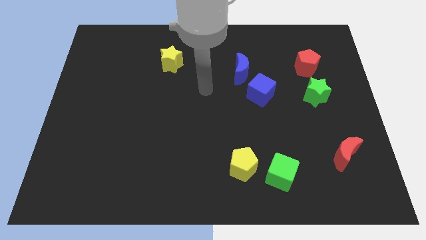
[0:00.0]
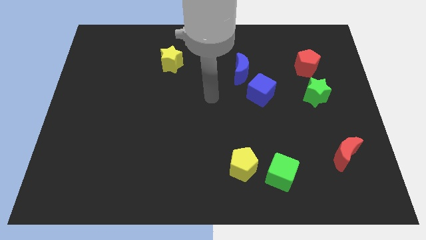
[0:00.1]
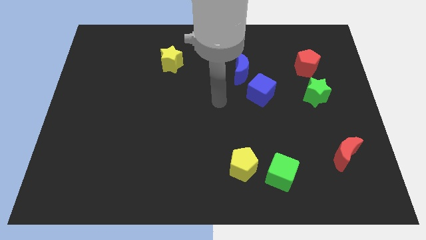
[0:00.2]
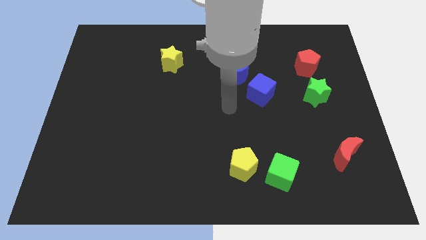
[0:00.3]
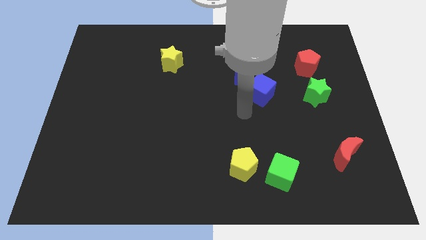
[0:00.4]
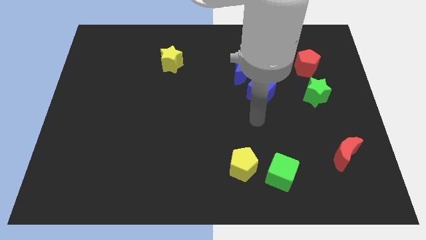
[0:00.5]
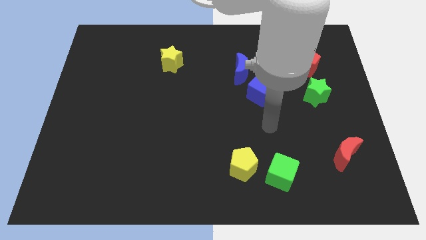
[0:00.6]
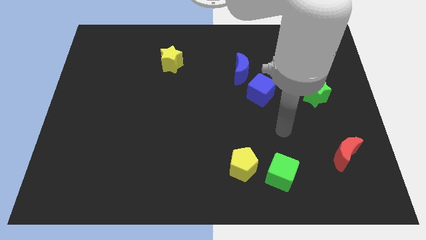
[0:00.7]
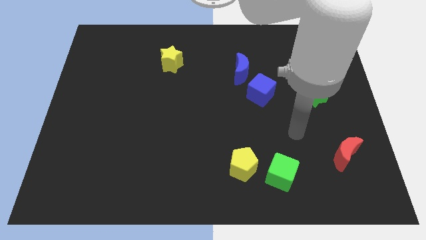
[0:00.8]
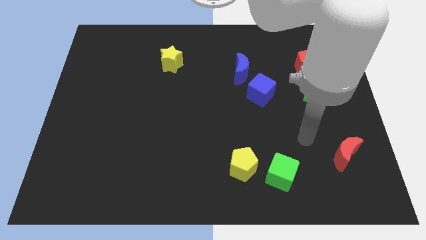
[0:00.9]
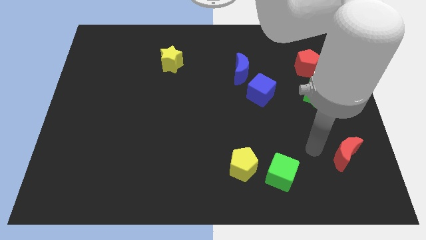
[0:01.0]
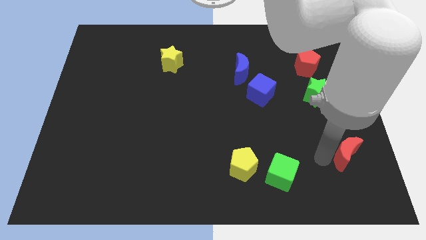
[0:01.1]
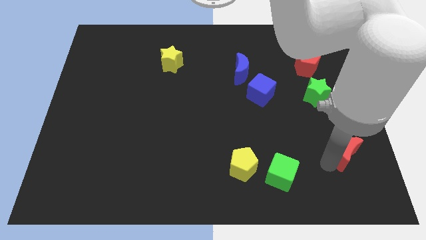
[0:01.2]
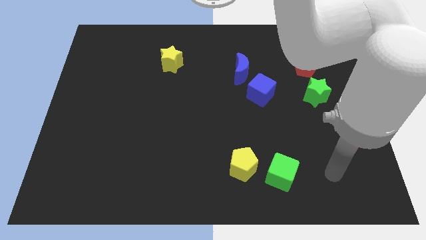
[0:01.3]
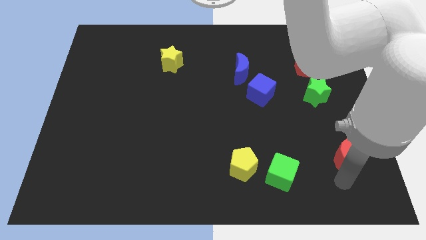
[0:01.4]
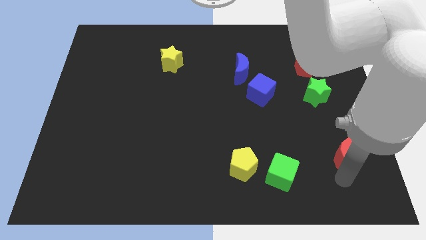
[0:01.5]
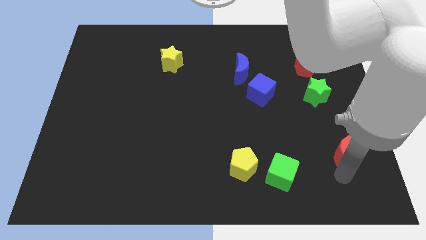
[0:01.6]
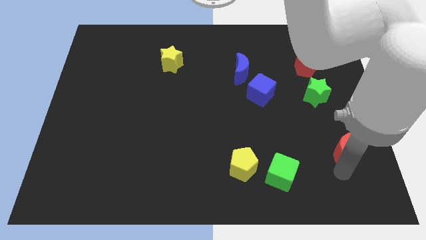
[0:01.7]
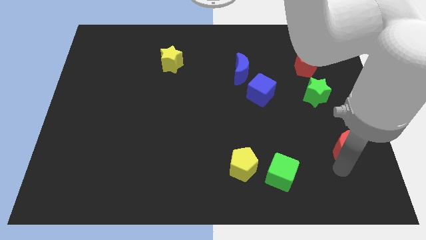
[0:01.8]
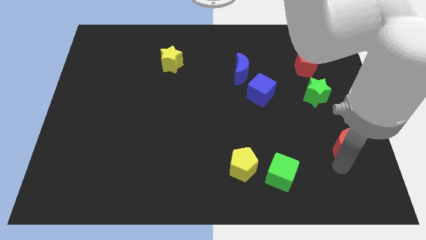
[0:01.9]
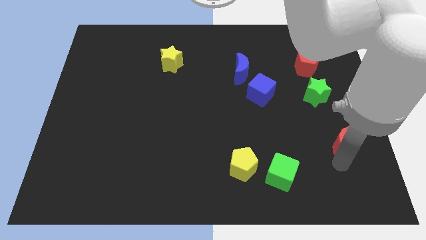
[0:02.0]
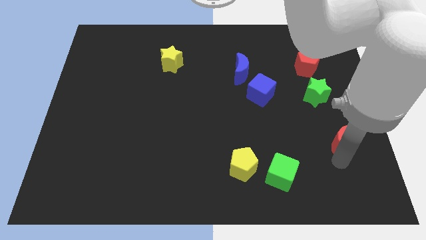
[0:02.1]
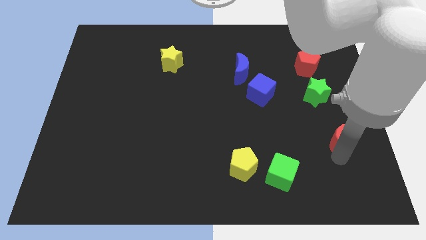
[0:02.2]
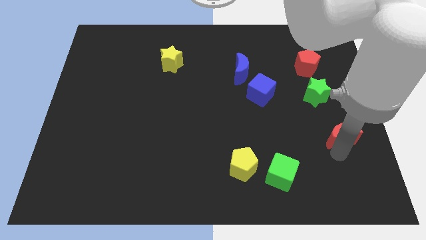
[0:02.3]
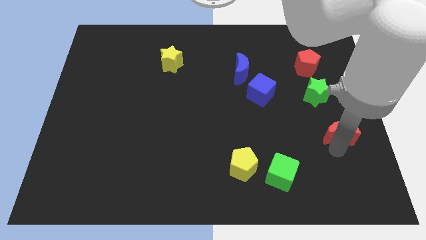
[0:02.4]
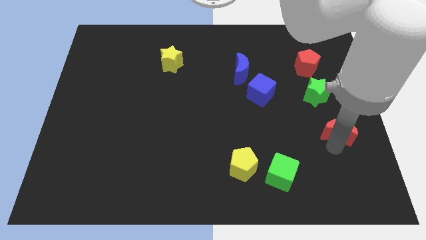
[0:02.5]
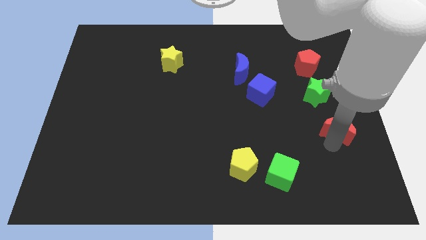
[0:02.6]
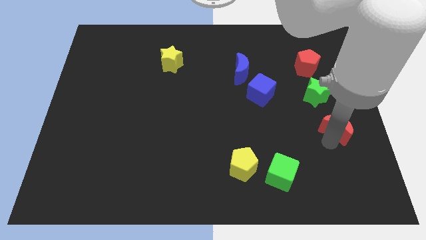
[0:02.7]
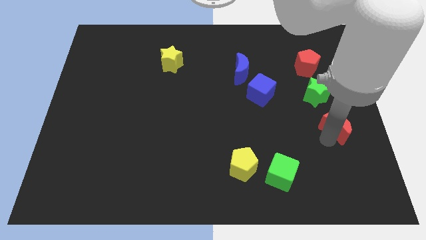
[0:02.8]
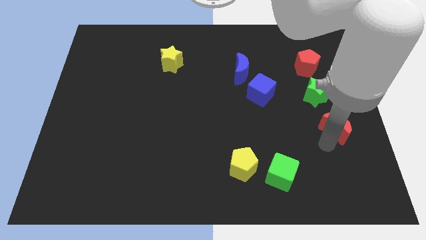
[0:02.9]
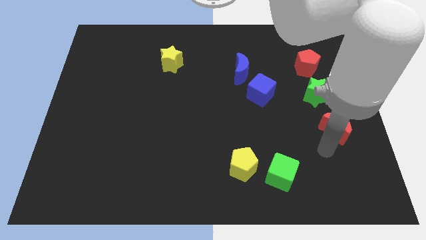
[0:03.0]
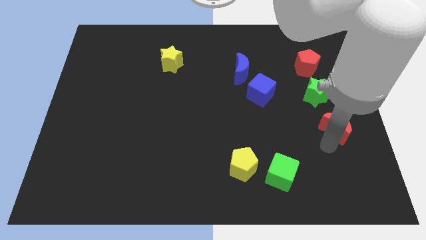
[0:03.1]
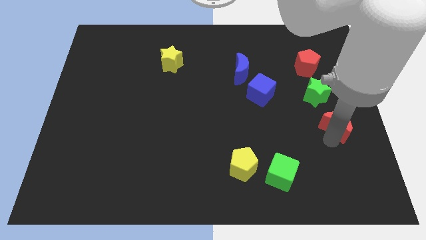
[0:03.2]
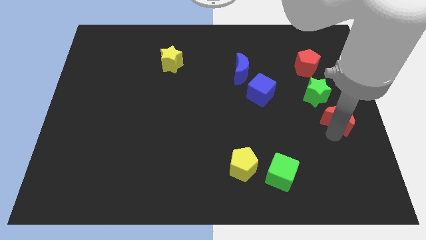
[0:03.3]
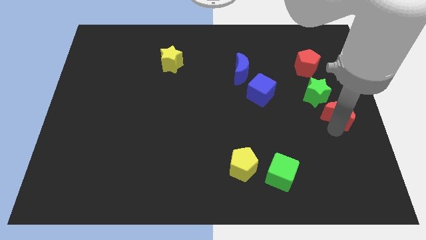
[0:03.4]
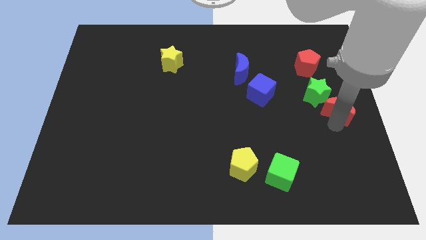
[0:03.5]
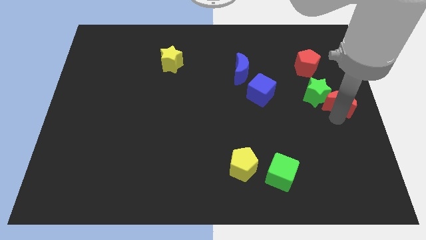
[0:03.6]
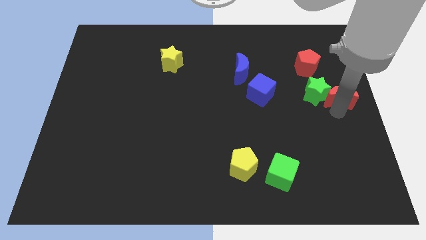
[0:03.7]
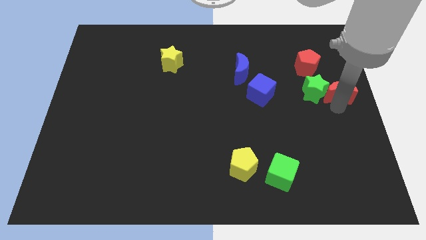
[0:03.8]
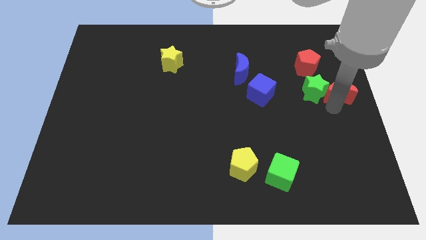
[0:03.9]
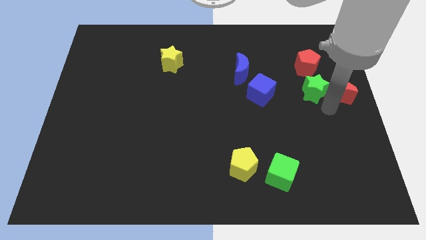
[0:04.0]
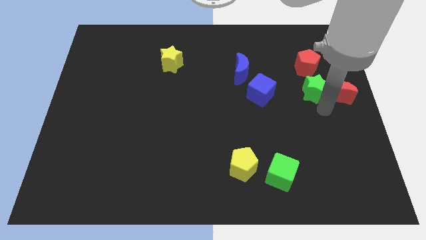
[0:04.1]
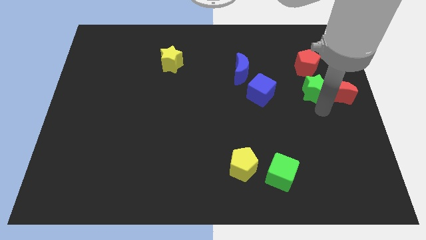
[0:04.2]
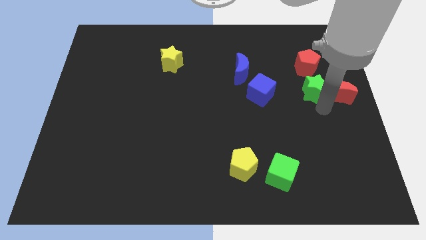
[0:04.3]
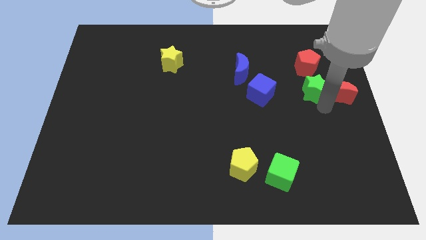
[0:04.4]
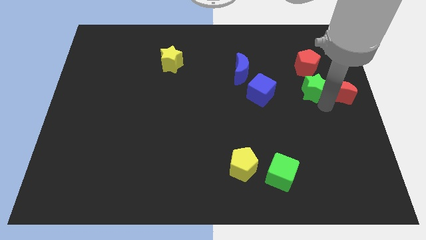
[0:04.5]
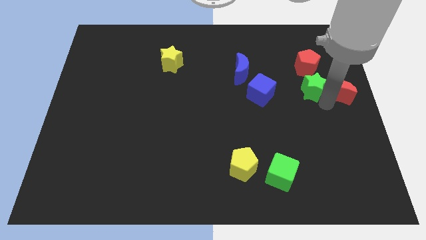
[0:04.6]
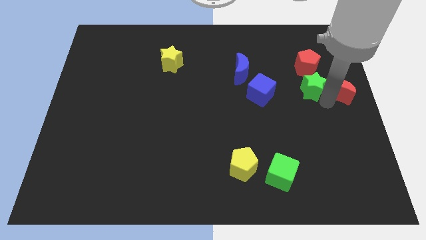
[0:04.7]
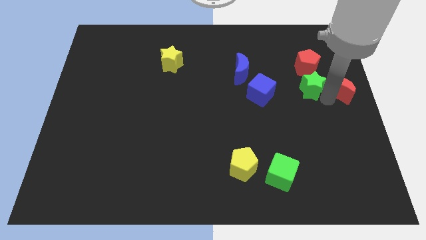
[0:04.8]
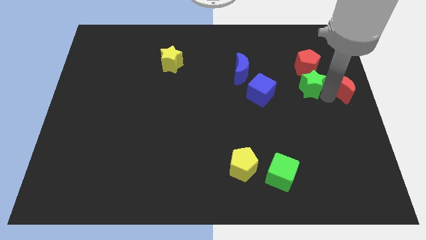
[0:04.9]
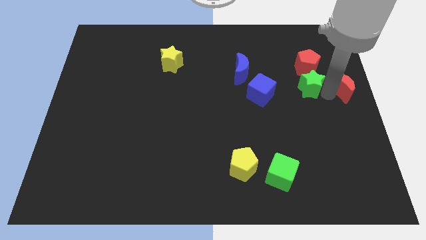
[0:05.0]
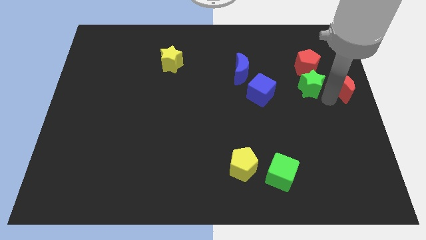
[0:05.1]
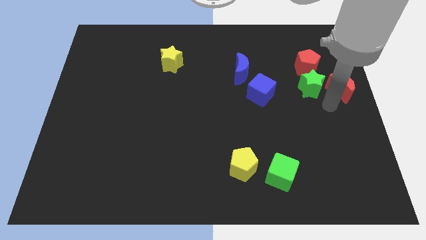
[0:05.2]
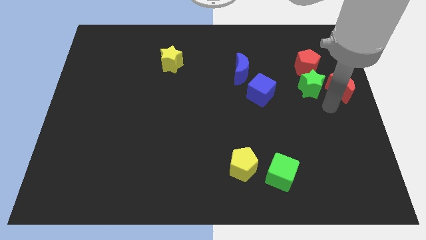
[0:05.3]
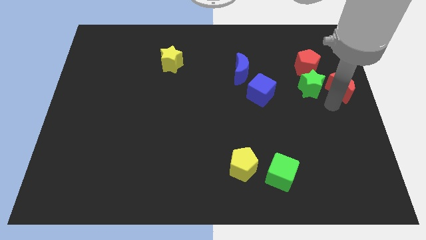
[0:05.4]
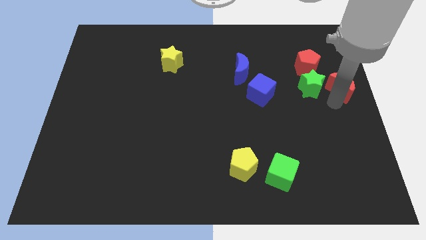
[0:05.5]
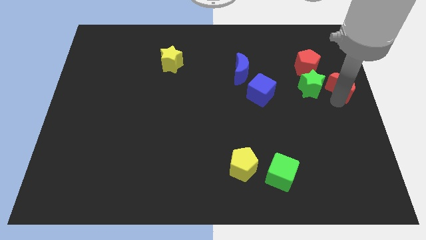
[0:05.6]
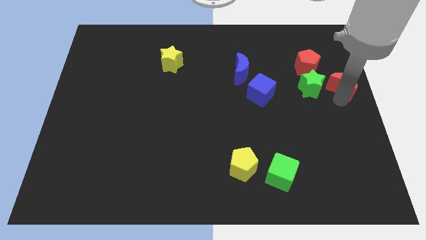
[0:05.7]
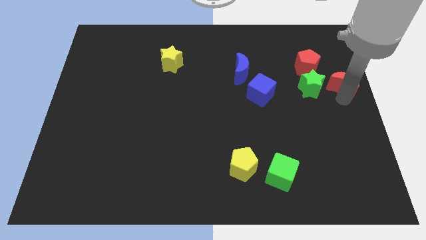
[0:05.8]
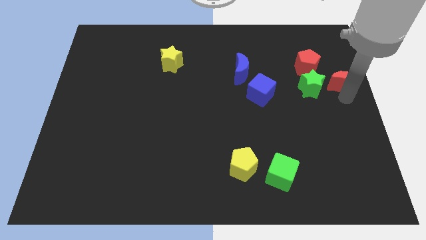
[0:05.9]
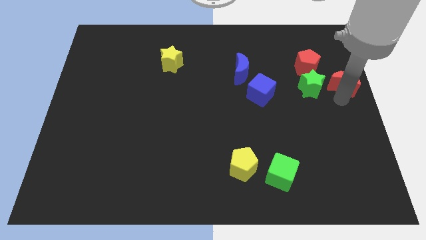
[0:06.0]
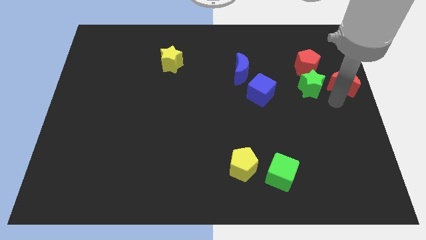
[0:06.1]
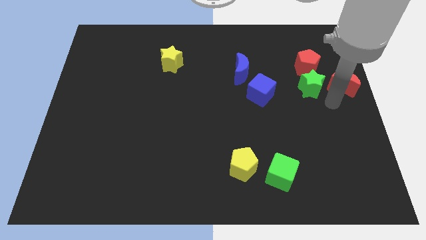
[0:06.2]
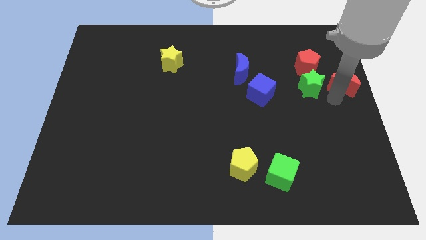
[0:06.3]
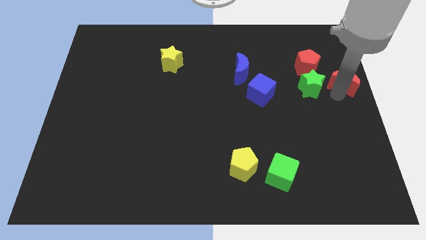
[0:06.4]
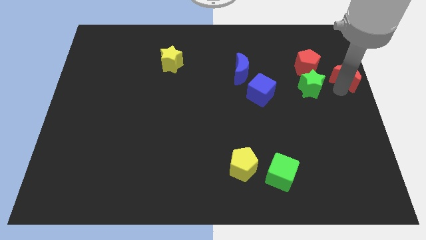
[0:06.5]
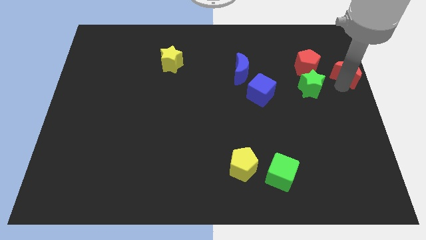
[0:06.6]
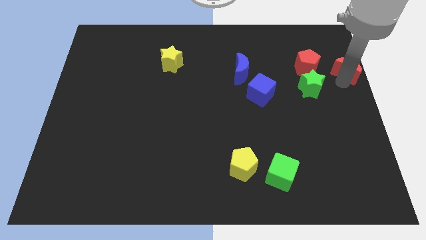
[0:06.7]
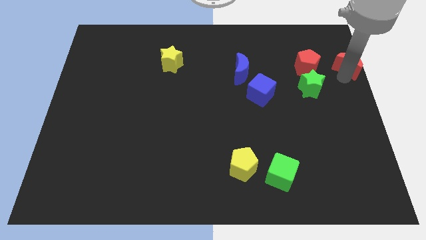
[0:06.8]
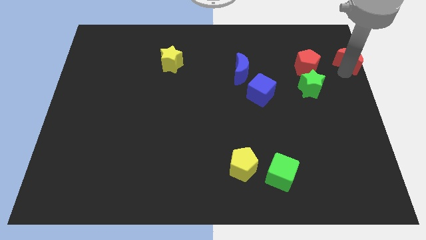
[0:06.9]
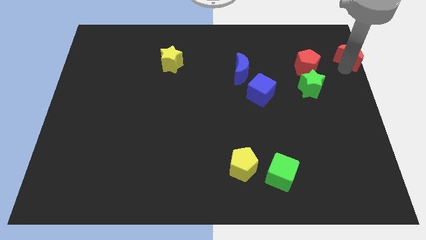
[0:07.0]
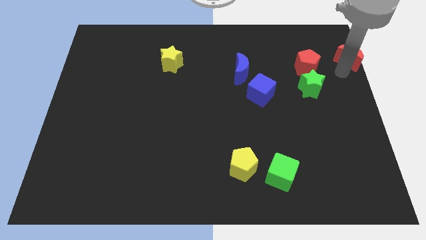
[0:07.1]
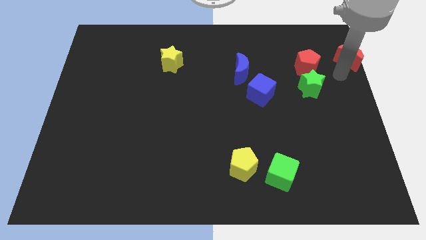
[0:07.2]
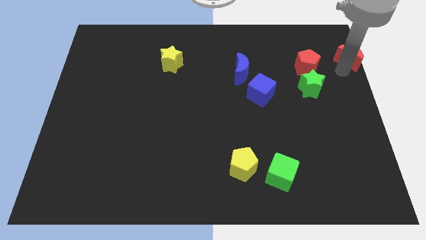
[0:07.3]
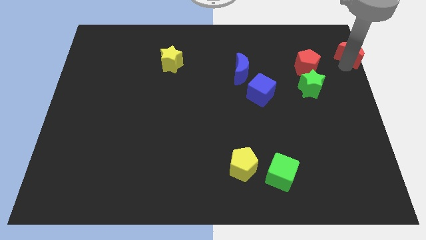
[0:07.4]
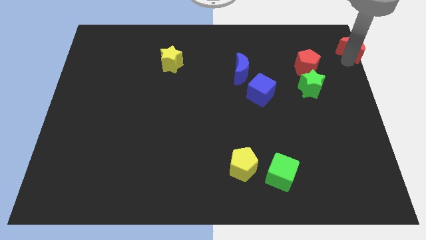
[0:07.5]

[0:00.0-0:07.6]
move the red moon to the top right corner
